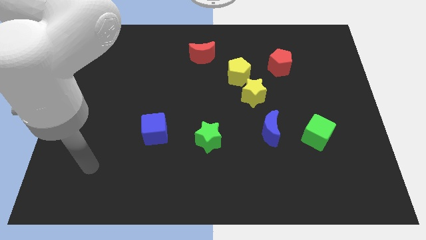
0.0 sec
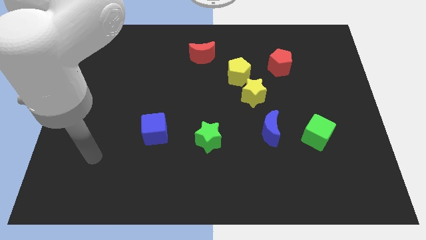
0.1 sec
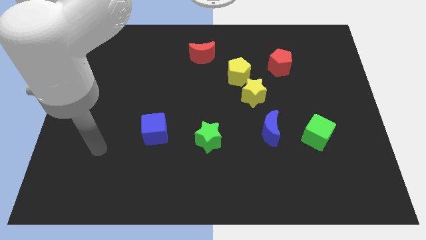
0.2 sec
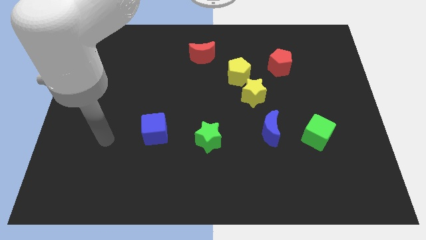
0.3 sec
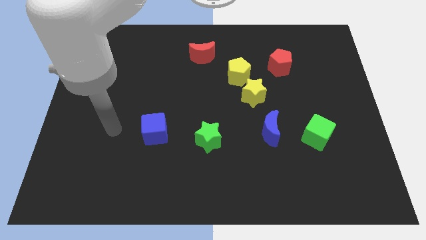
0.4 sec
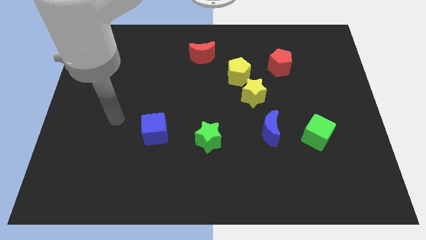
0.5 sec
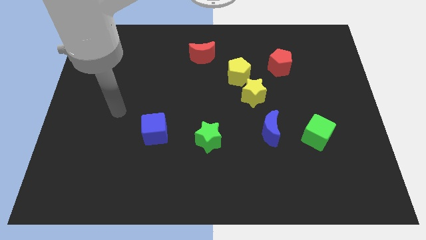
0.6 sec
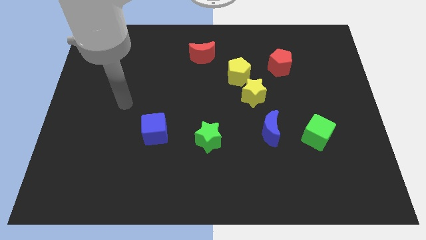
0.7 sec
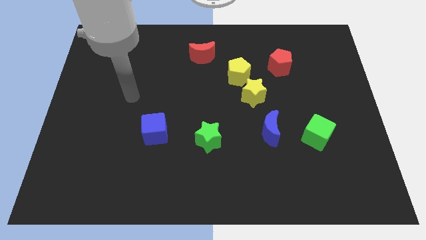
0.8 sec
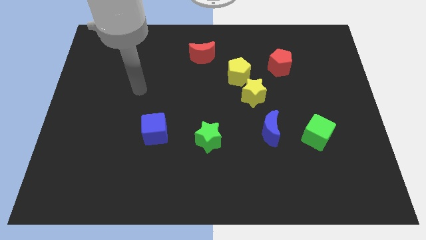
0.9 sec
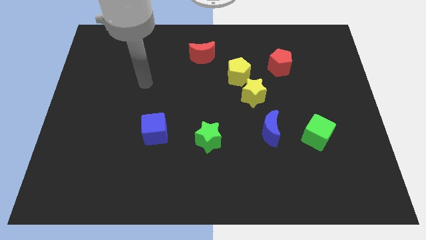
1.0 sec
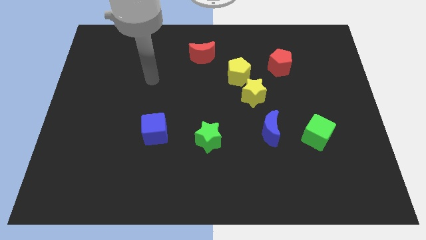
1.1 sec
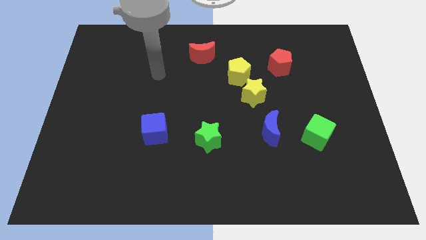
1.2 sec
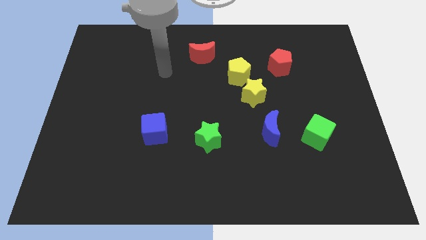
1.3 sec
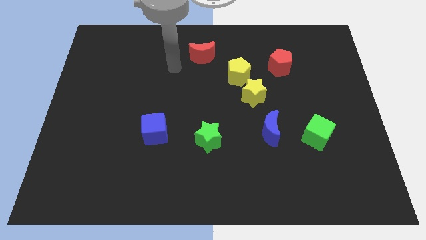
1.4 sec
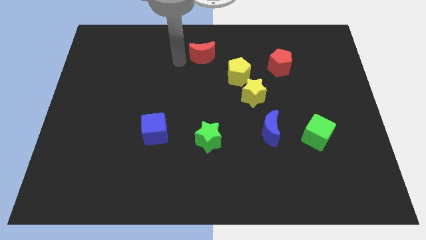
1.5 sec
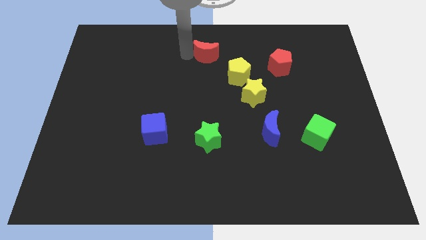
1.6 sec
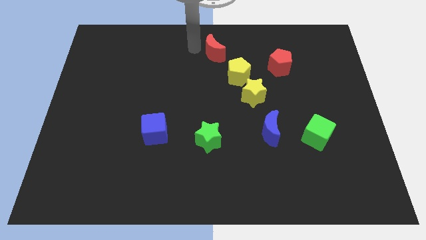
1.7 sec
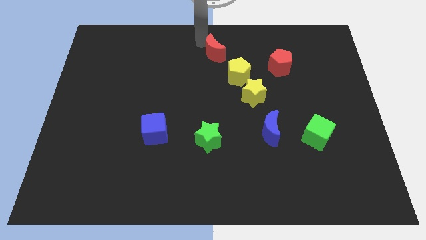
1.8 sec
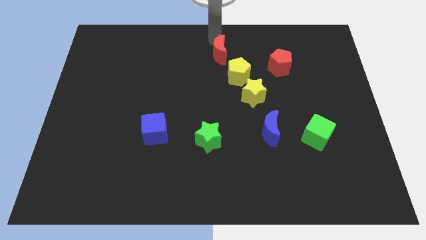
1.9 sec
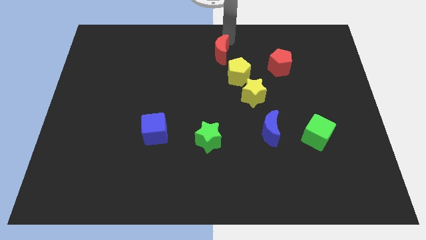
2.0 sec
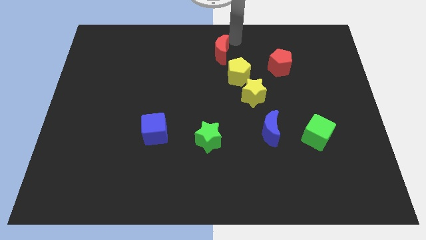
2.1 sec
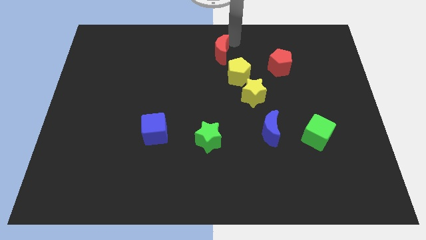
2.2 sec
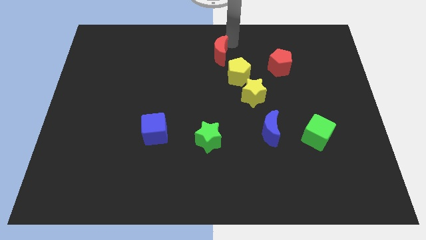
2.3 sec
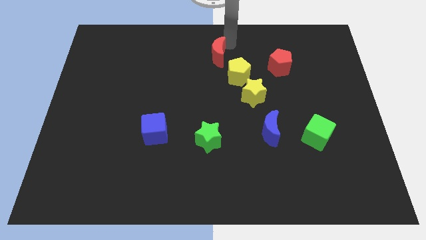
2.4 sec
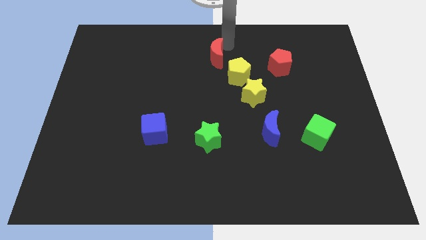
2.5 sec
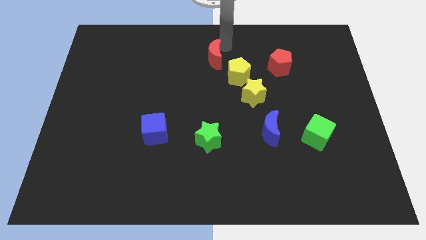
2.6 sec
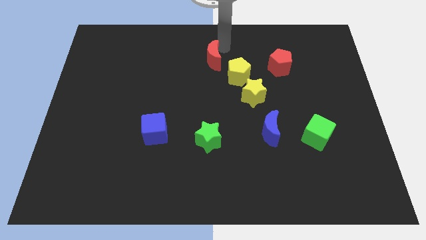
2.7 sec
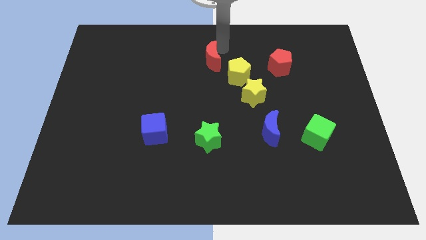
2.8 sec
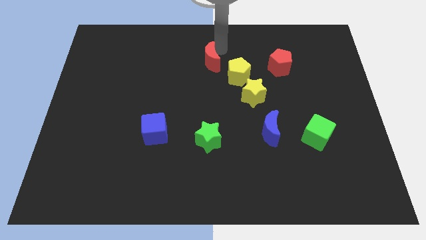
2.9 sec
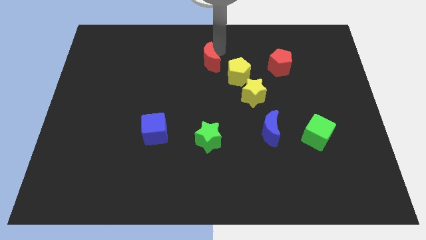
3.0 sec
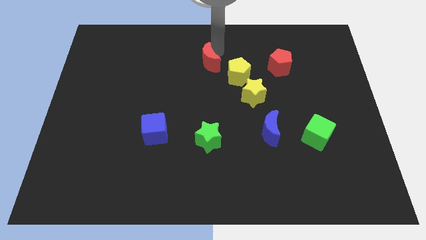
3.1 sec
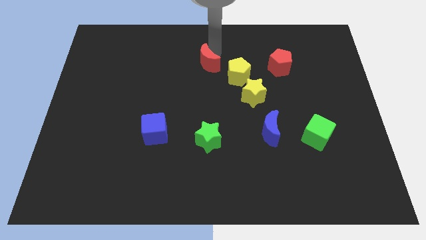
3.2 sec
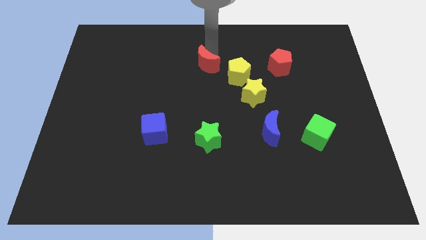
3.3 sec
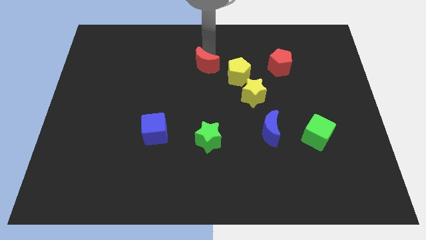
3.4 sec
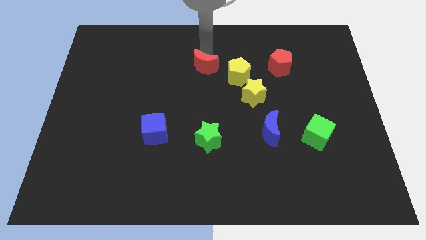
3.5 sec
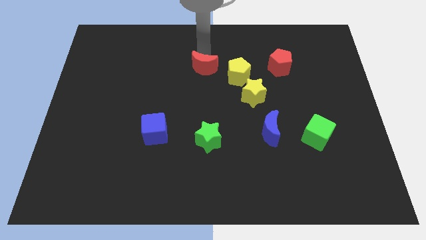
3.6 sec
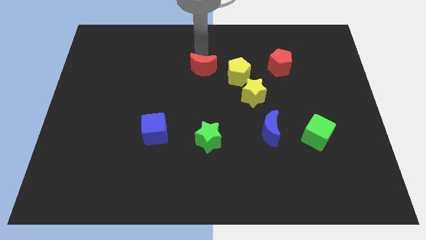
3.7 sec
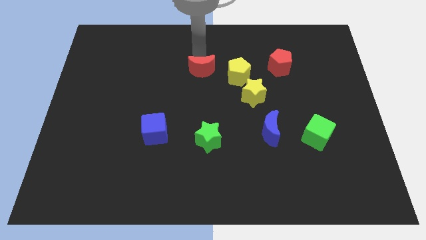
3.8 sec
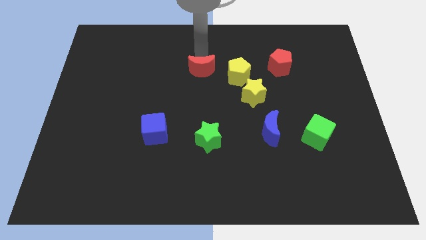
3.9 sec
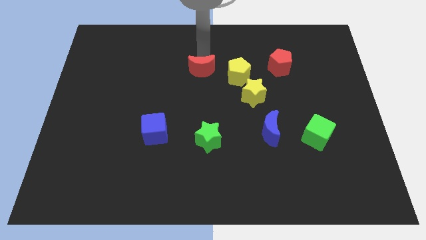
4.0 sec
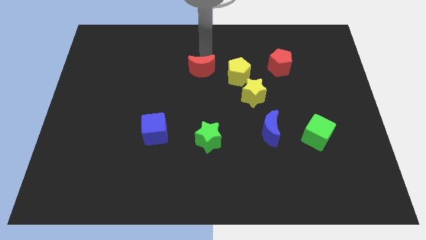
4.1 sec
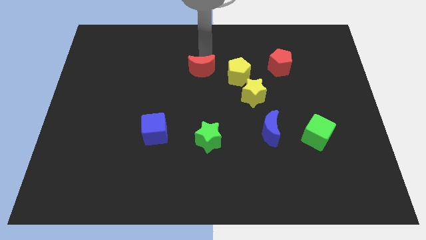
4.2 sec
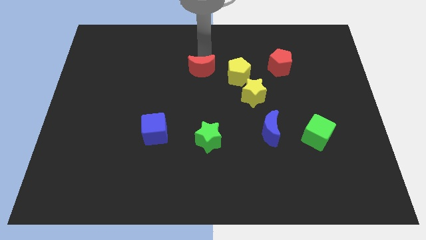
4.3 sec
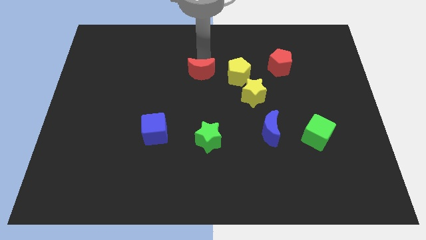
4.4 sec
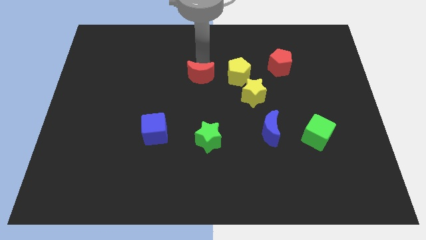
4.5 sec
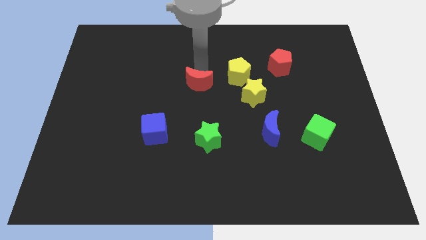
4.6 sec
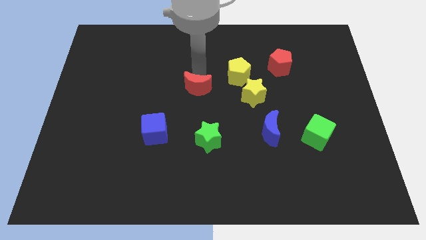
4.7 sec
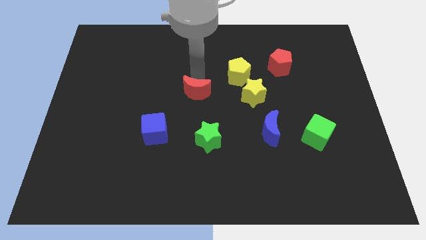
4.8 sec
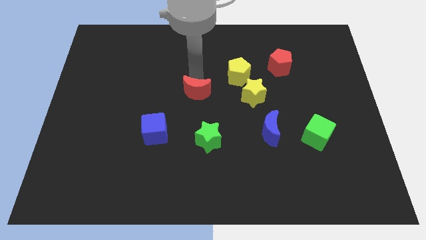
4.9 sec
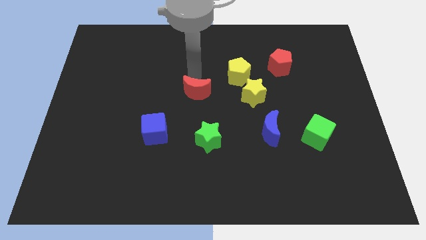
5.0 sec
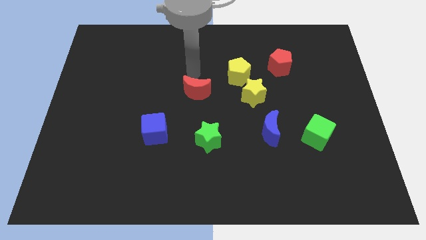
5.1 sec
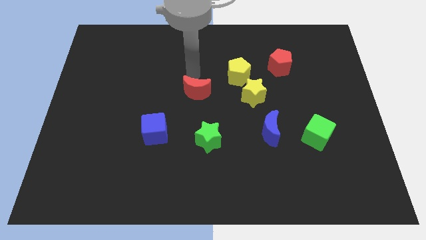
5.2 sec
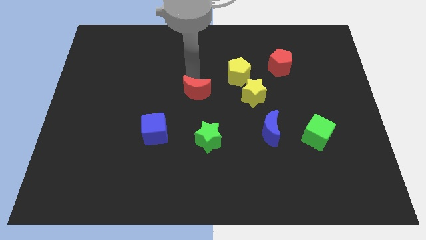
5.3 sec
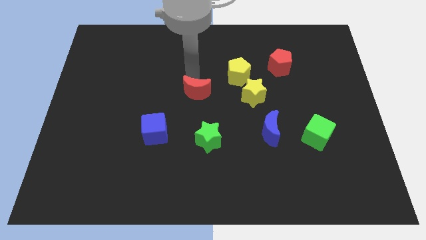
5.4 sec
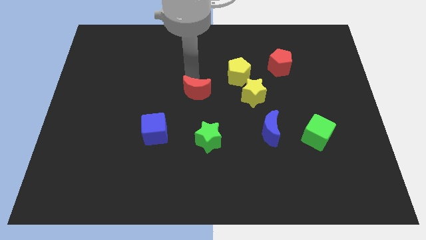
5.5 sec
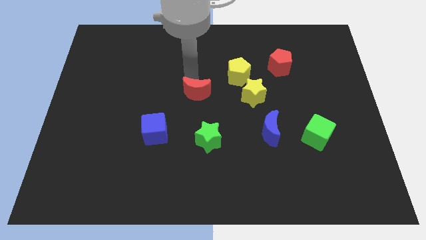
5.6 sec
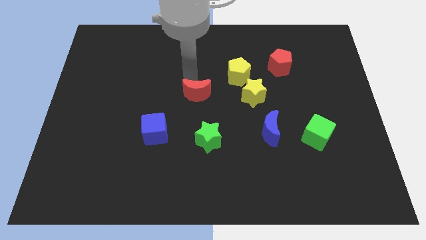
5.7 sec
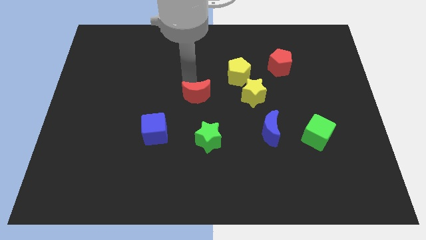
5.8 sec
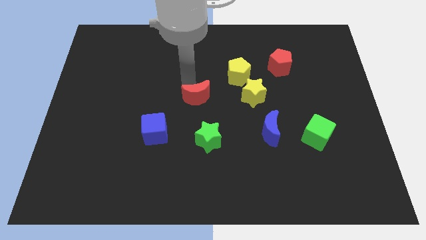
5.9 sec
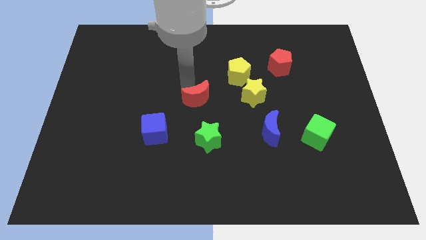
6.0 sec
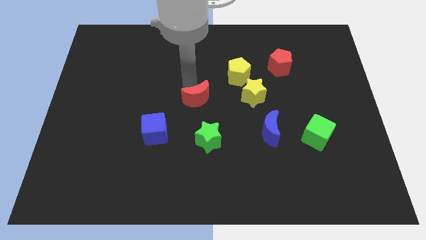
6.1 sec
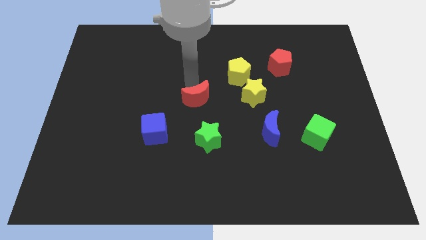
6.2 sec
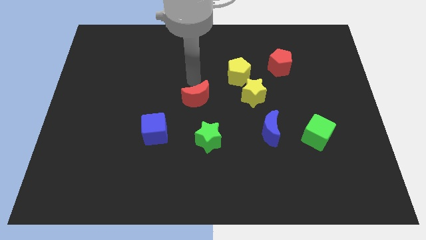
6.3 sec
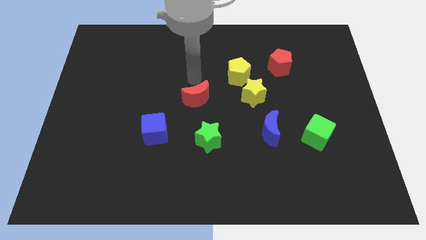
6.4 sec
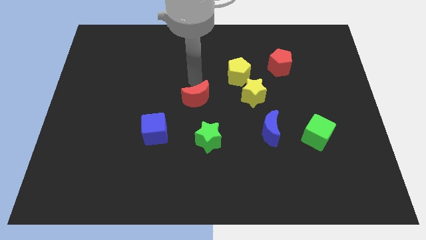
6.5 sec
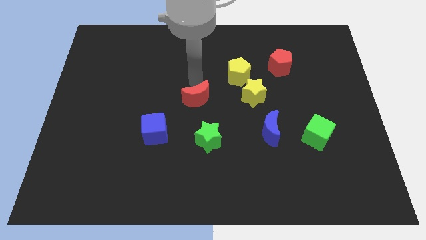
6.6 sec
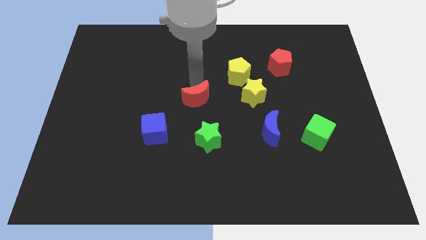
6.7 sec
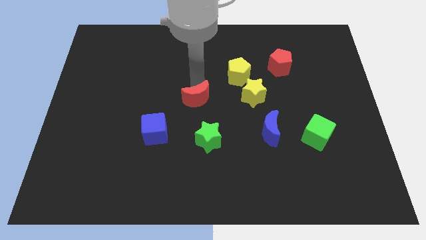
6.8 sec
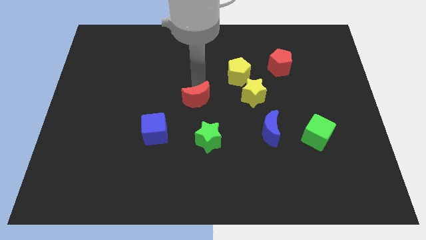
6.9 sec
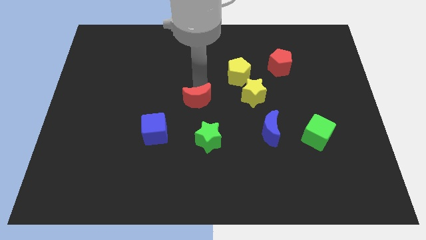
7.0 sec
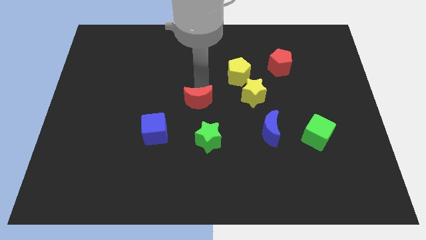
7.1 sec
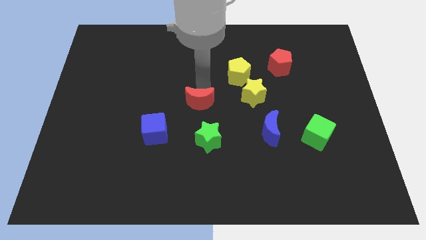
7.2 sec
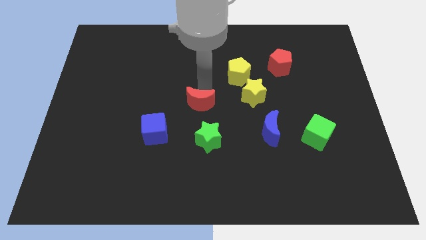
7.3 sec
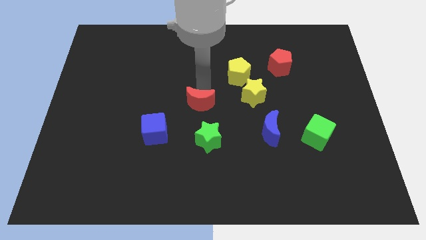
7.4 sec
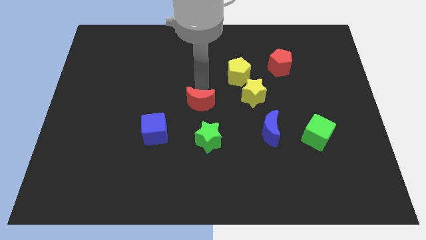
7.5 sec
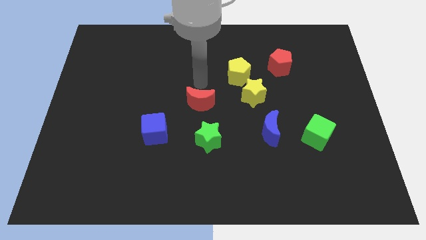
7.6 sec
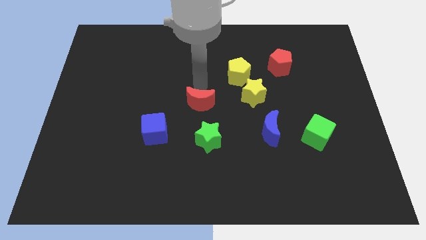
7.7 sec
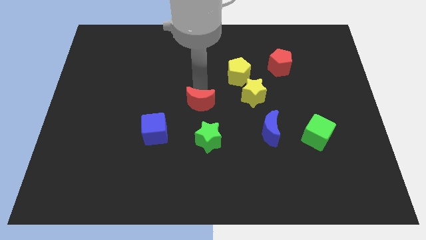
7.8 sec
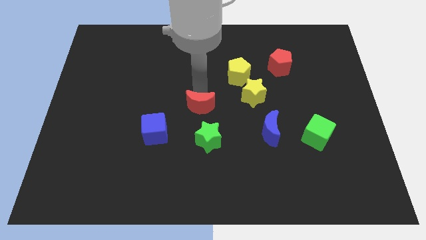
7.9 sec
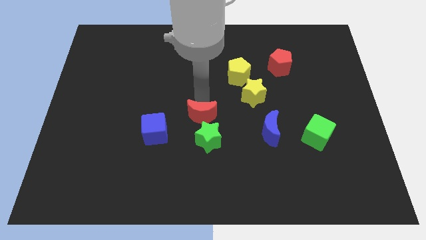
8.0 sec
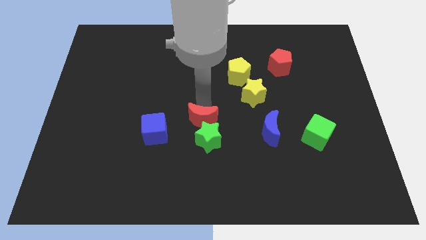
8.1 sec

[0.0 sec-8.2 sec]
move the red moon downwards
